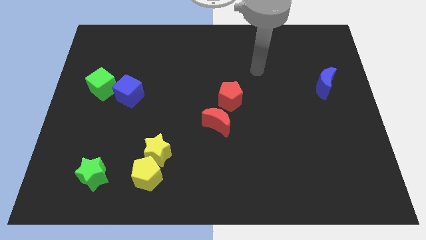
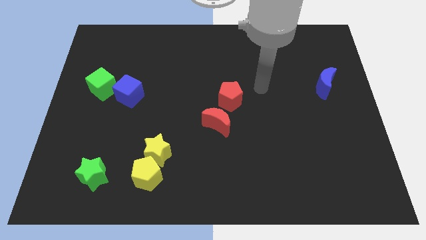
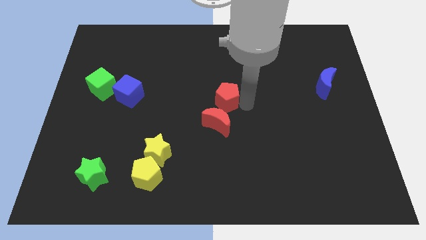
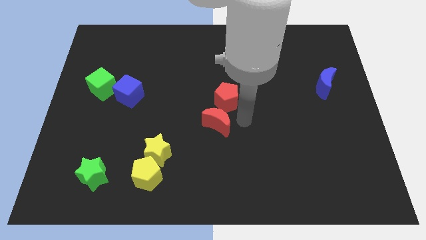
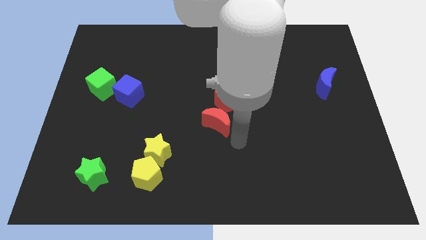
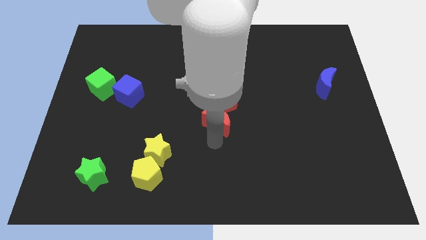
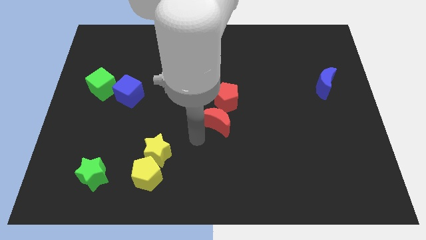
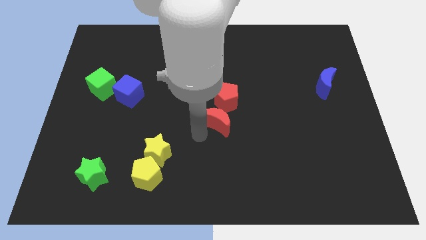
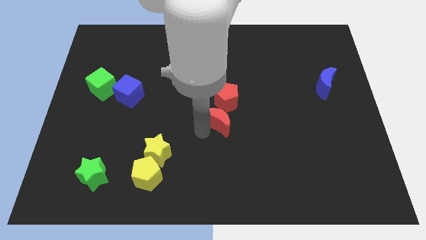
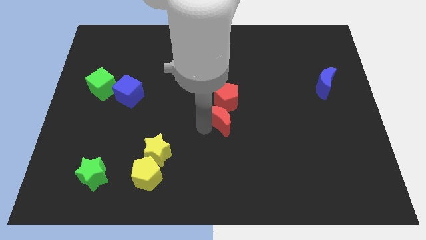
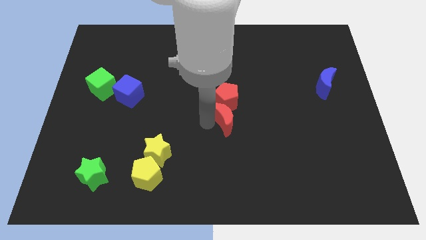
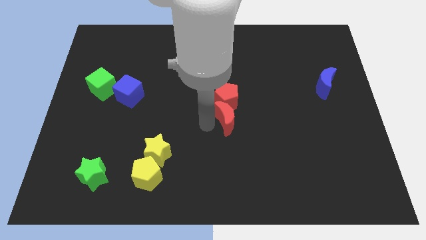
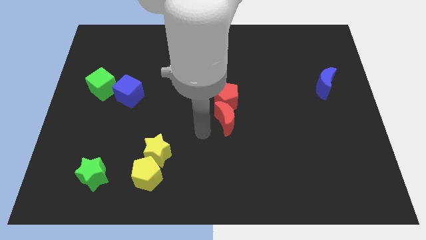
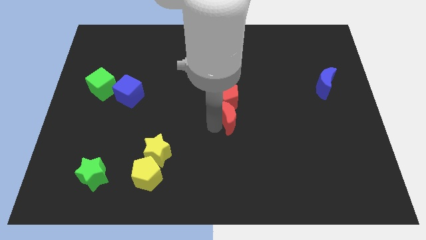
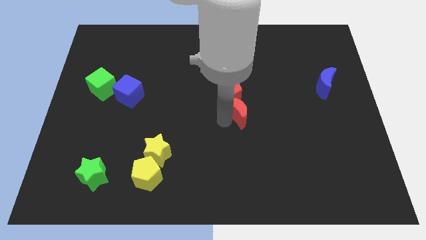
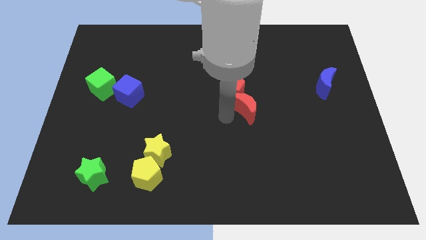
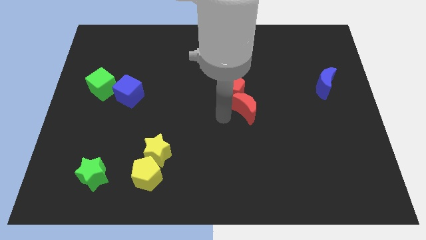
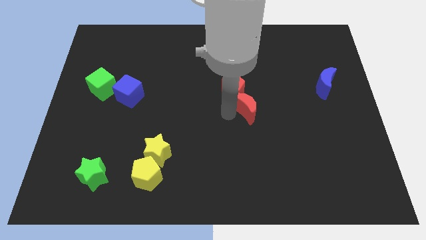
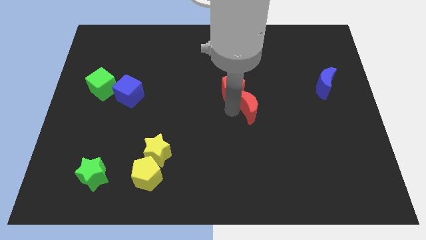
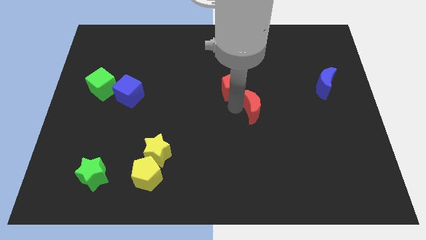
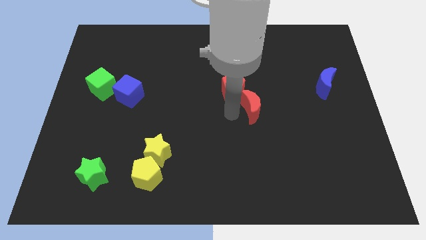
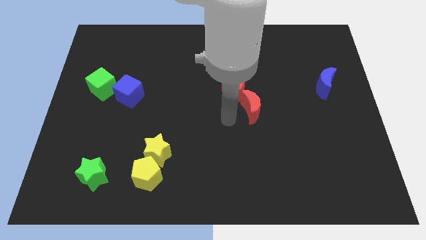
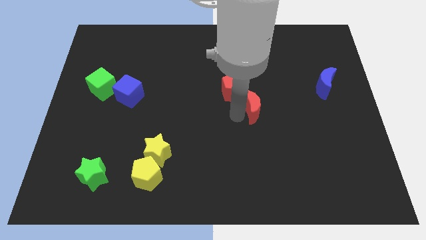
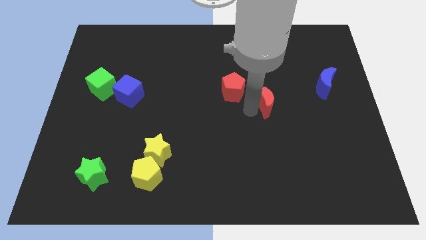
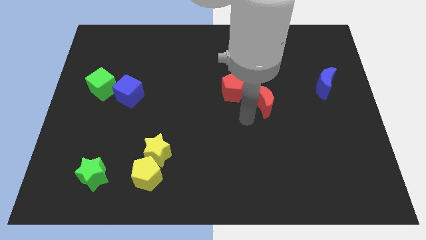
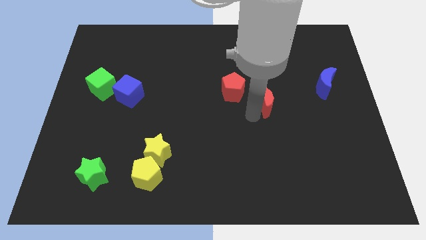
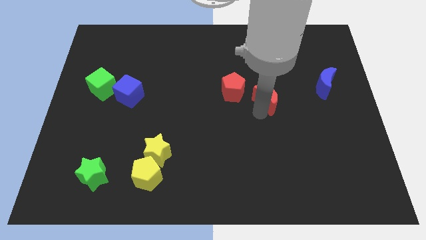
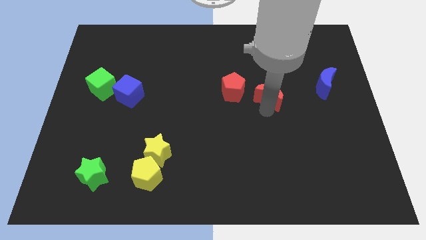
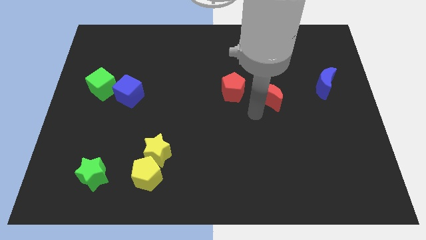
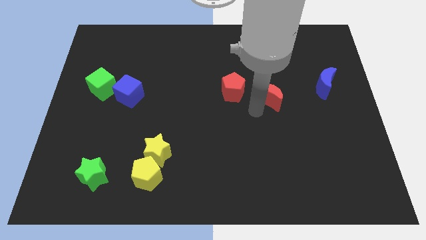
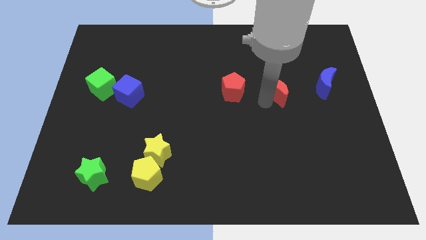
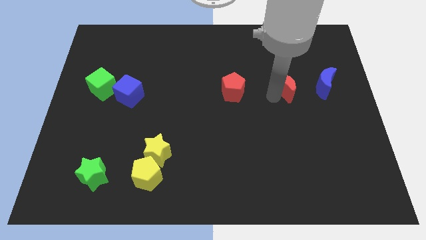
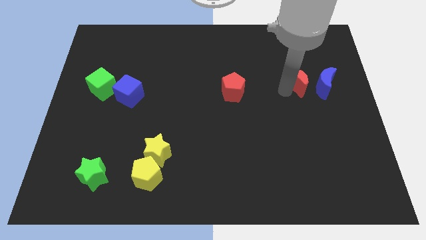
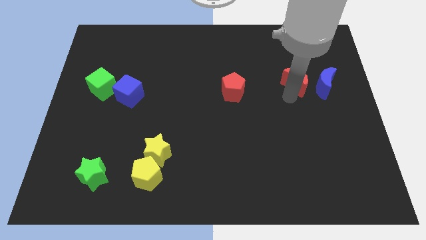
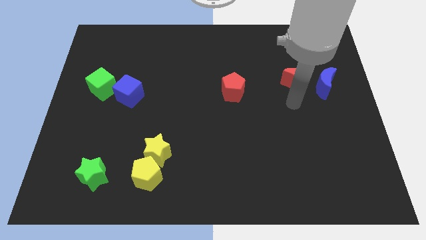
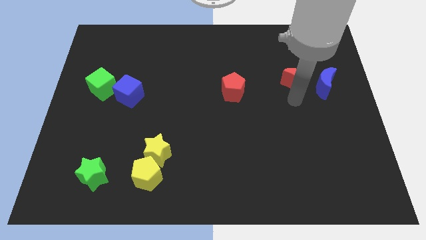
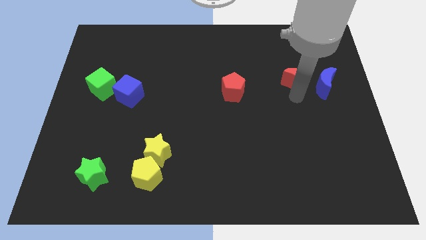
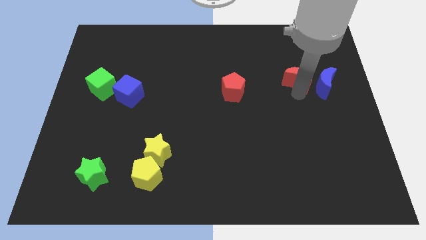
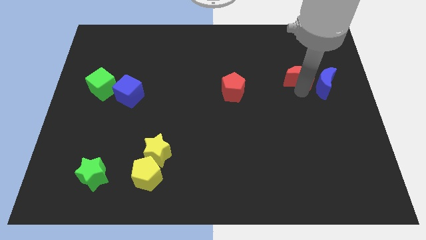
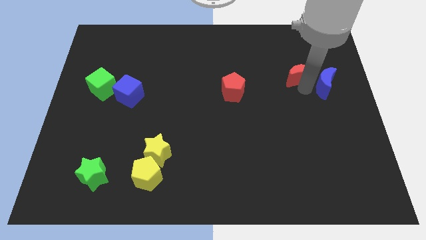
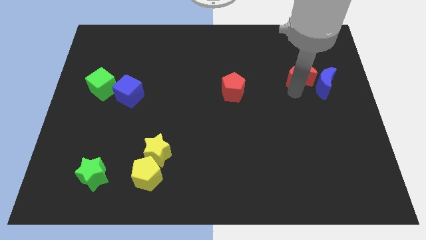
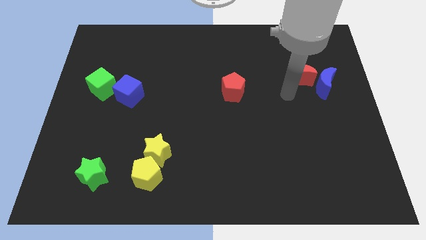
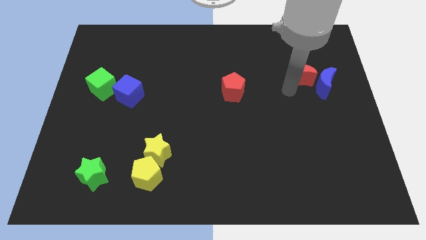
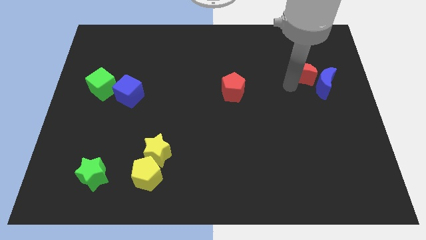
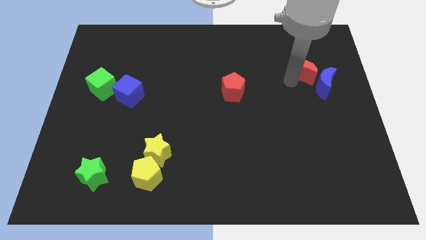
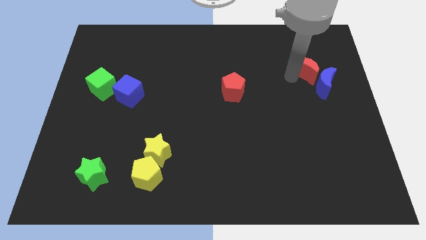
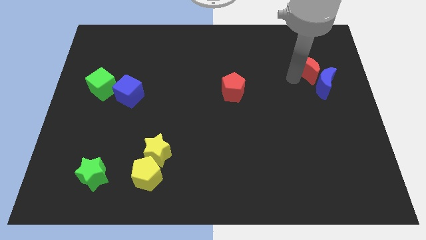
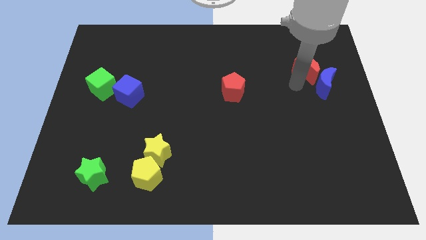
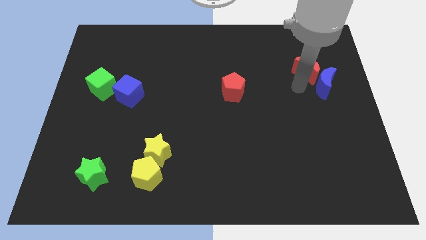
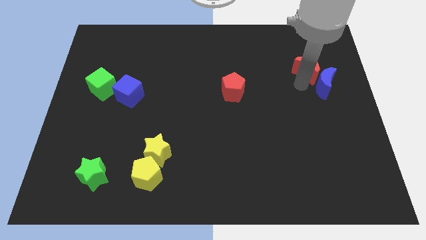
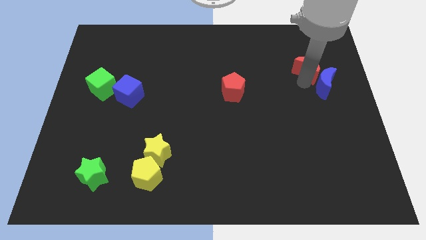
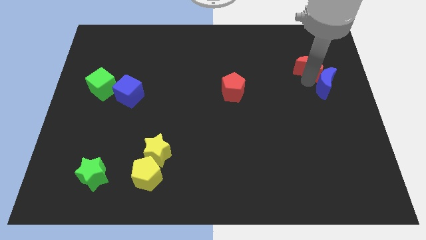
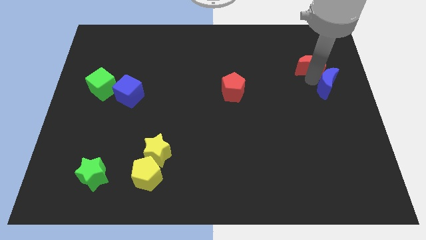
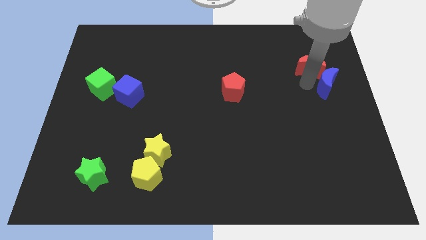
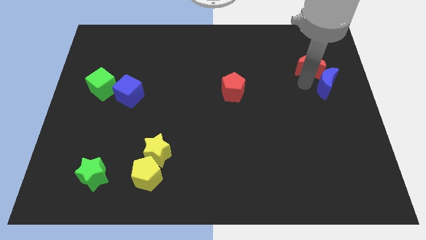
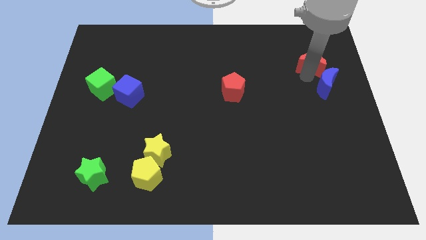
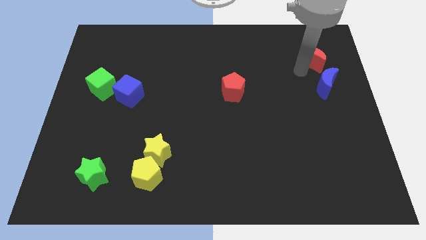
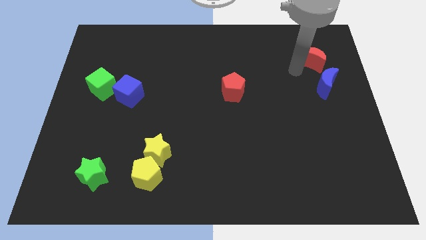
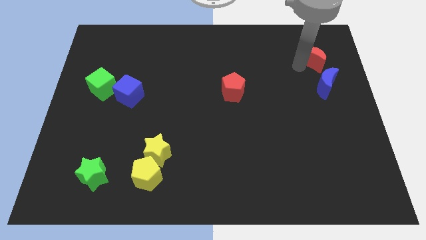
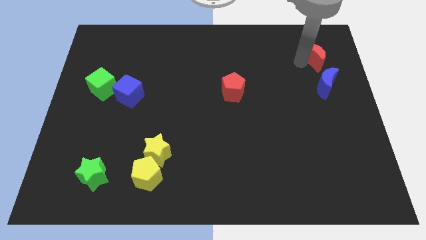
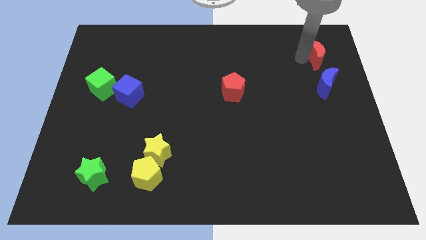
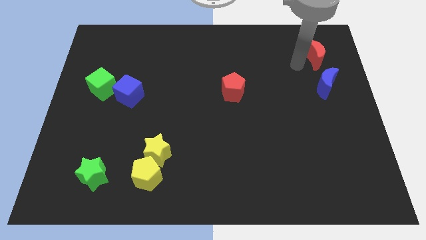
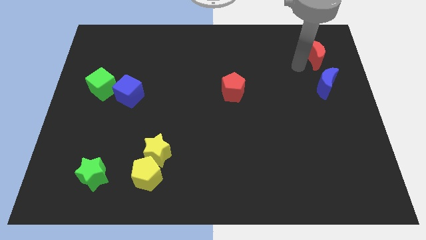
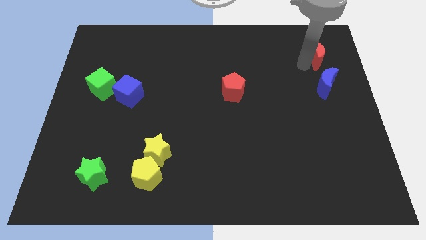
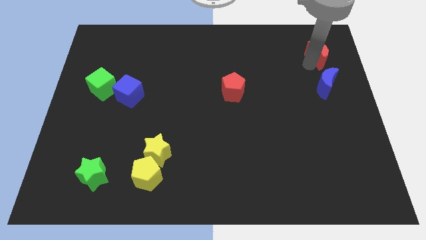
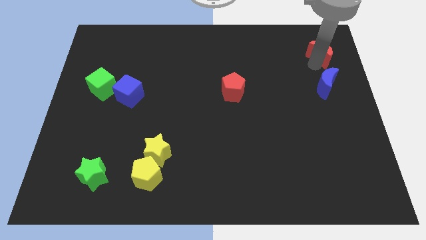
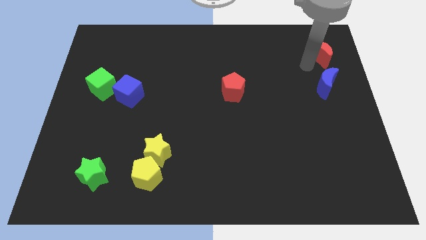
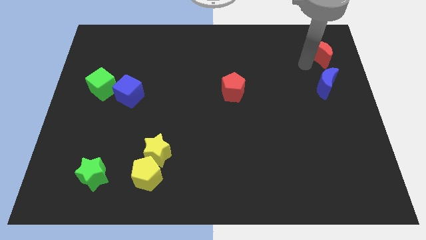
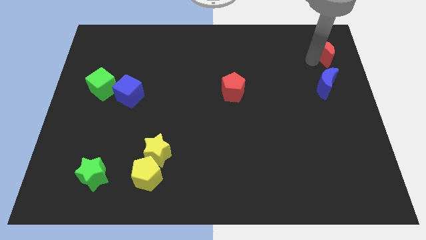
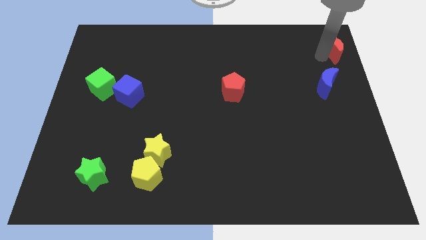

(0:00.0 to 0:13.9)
slide the red moon to the top right of the board
